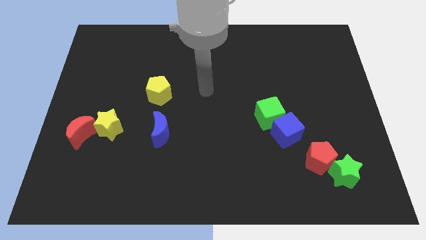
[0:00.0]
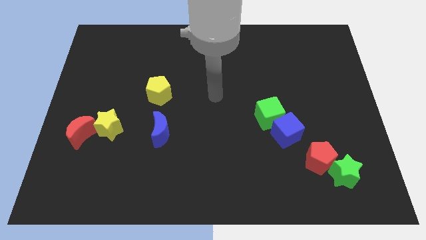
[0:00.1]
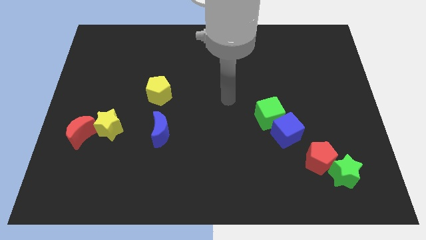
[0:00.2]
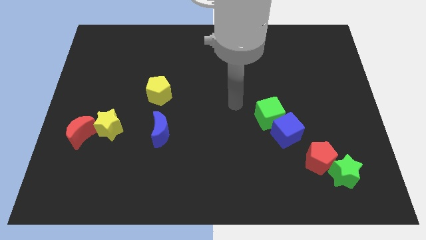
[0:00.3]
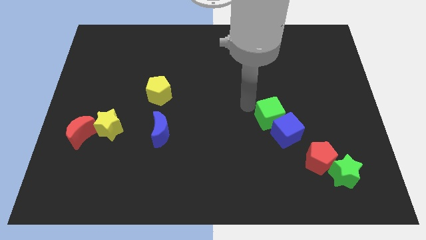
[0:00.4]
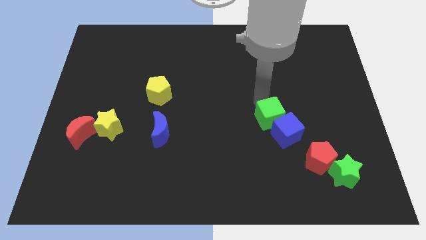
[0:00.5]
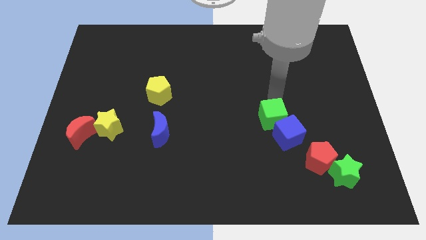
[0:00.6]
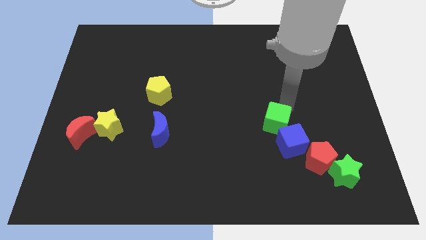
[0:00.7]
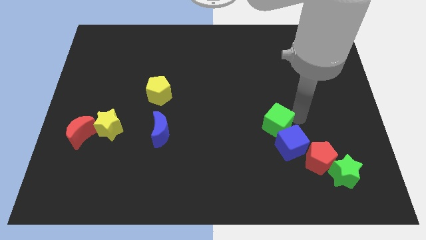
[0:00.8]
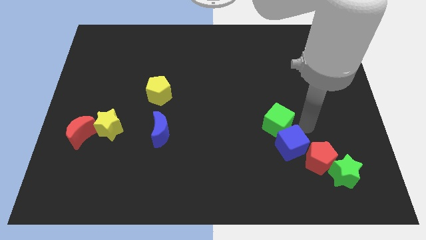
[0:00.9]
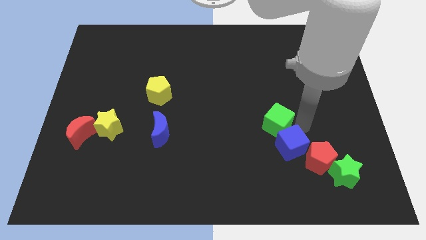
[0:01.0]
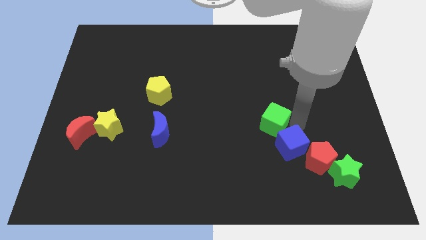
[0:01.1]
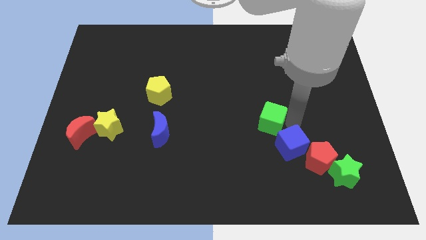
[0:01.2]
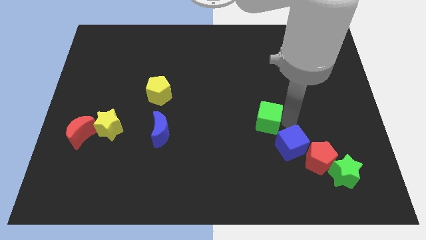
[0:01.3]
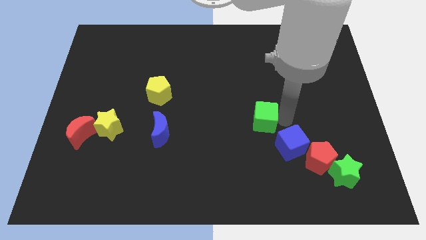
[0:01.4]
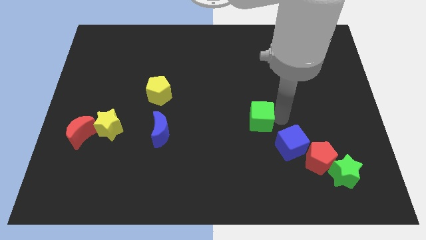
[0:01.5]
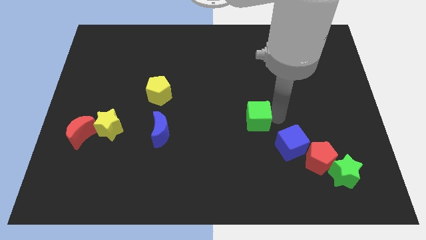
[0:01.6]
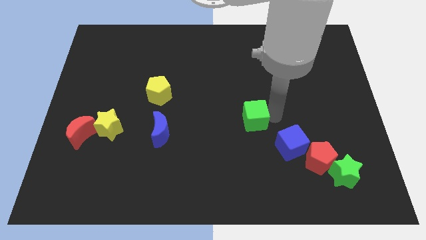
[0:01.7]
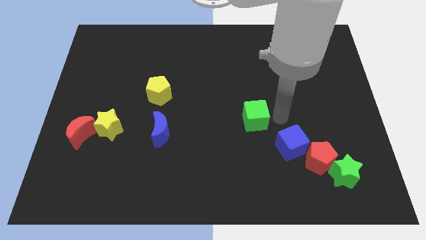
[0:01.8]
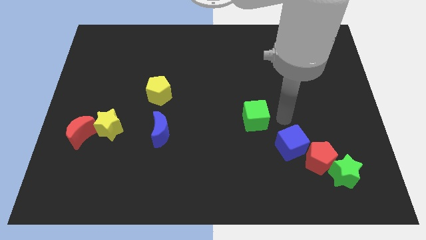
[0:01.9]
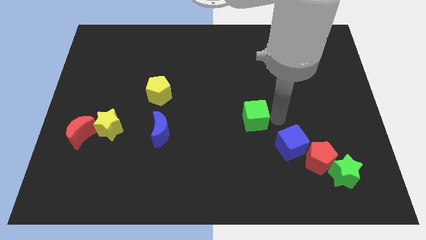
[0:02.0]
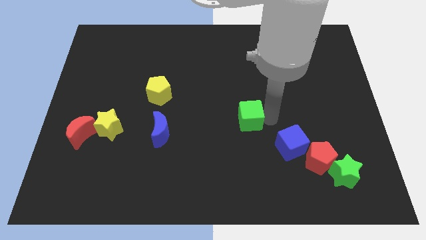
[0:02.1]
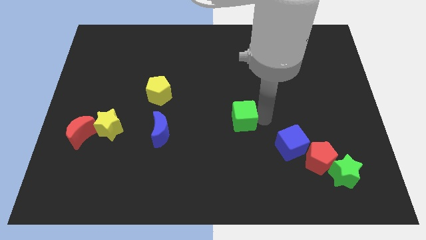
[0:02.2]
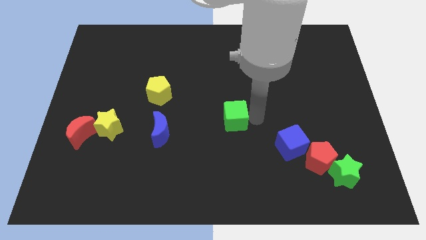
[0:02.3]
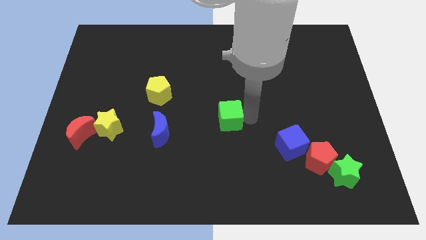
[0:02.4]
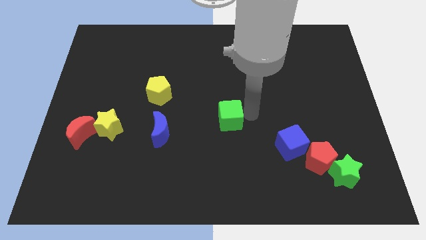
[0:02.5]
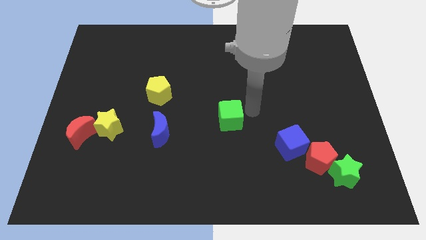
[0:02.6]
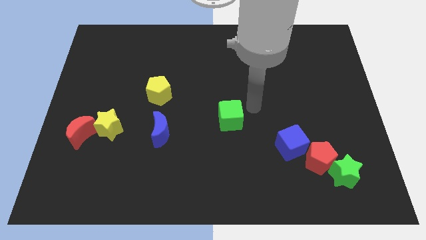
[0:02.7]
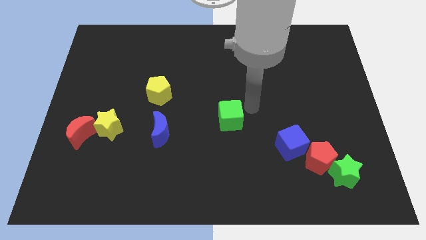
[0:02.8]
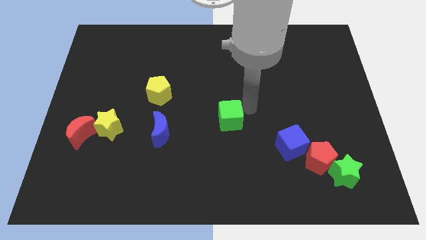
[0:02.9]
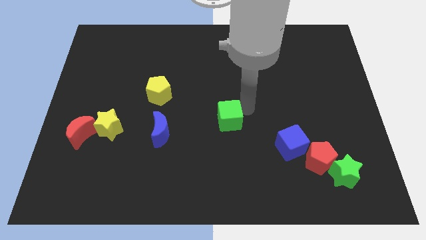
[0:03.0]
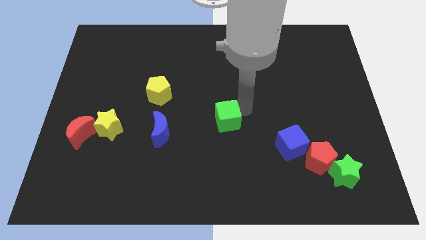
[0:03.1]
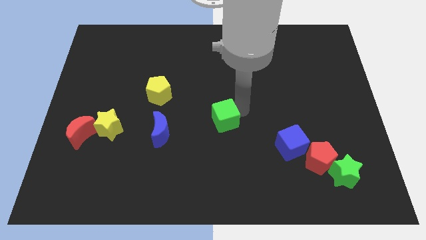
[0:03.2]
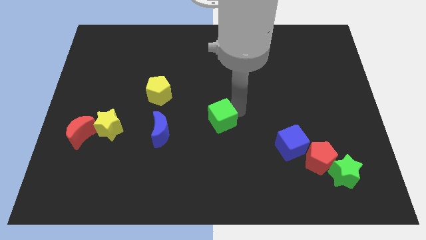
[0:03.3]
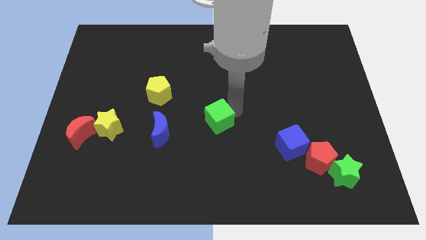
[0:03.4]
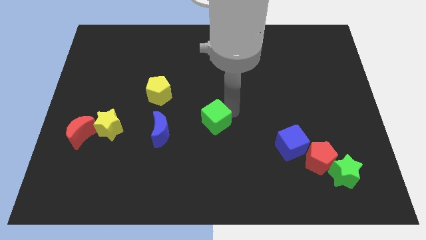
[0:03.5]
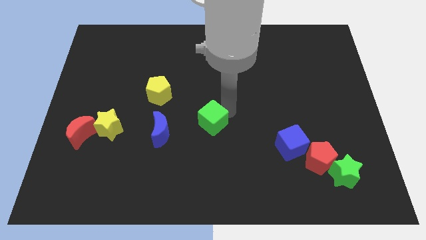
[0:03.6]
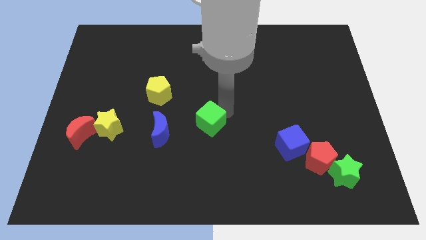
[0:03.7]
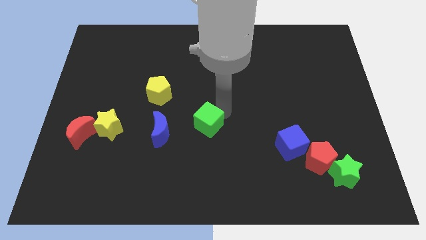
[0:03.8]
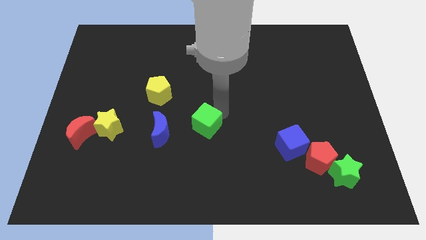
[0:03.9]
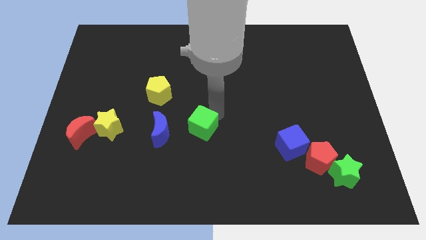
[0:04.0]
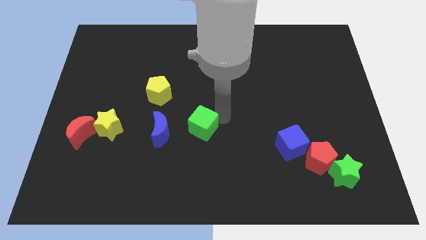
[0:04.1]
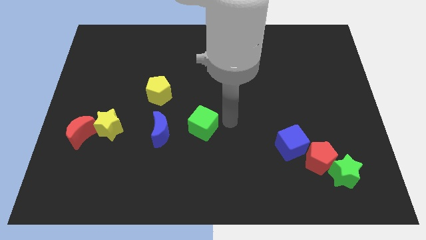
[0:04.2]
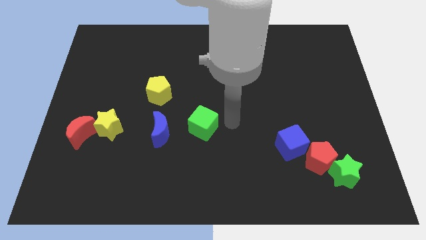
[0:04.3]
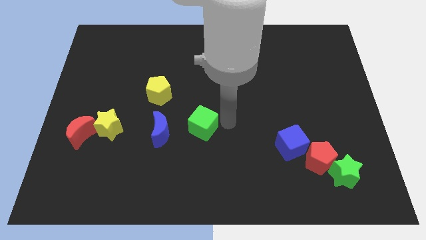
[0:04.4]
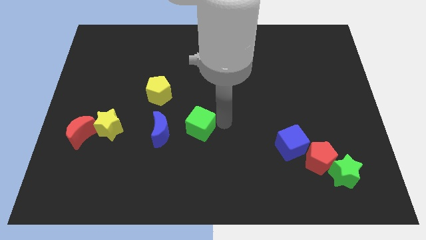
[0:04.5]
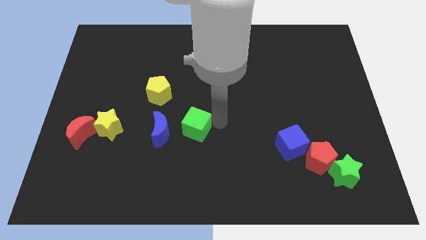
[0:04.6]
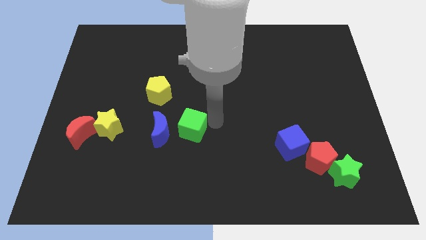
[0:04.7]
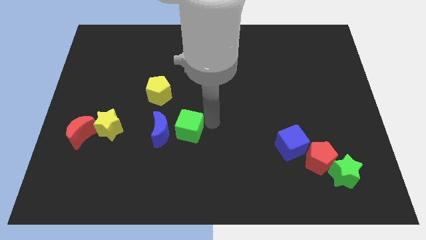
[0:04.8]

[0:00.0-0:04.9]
move the green cube close to the blue moon

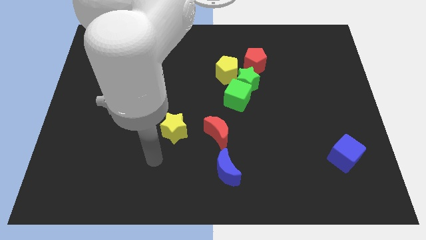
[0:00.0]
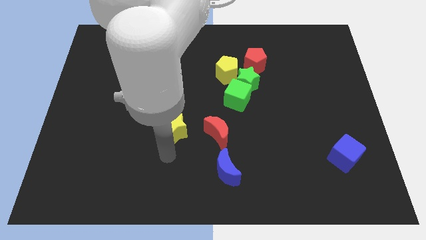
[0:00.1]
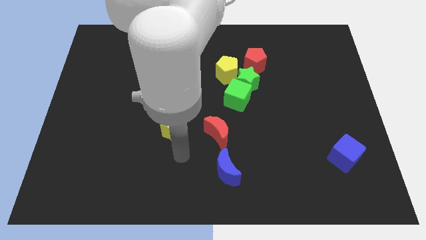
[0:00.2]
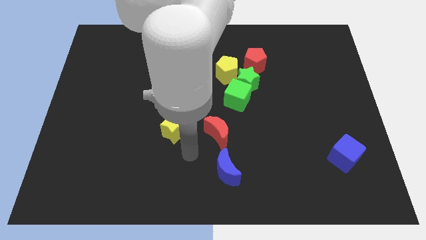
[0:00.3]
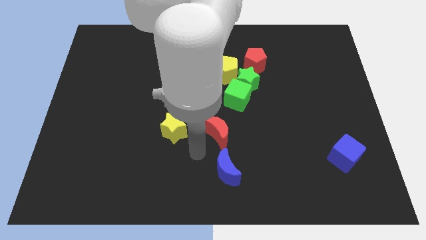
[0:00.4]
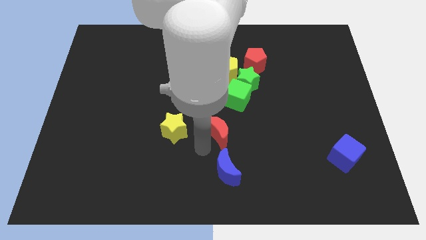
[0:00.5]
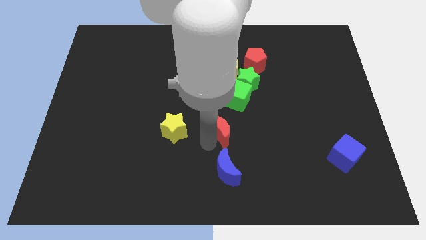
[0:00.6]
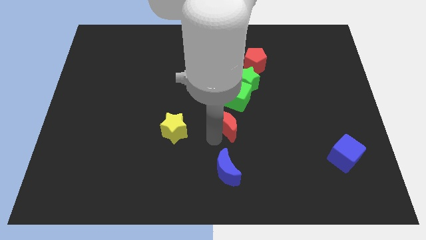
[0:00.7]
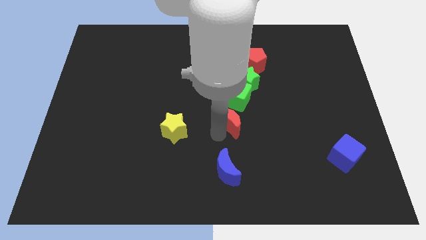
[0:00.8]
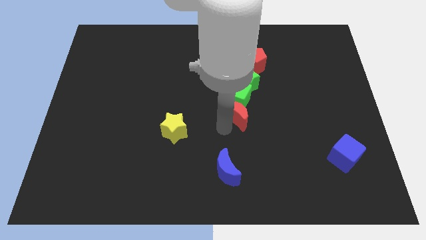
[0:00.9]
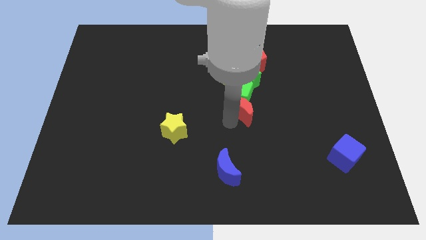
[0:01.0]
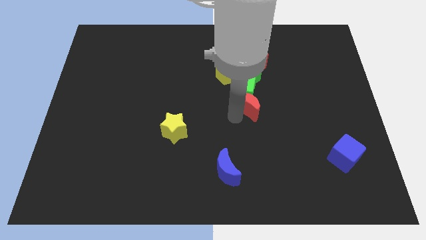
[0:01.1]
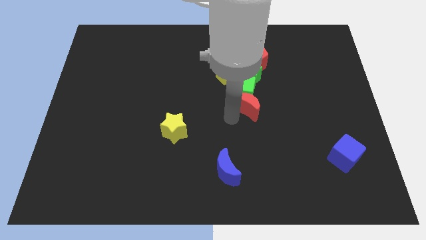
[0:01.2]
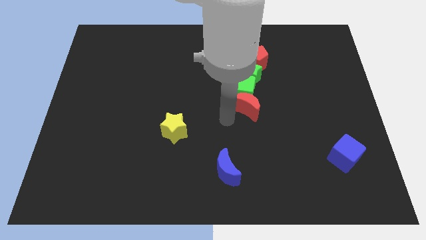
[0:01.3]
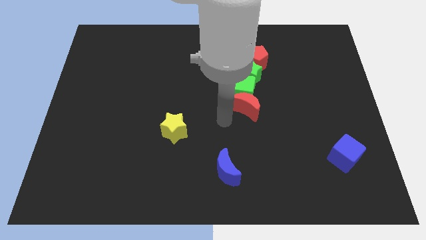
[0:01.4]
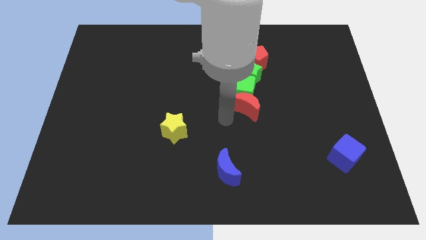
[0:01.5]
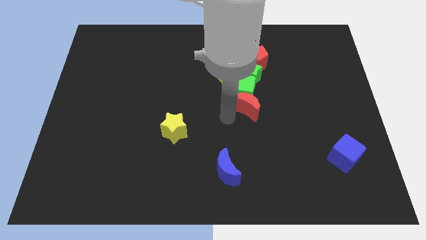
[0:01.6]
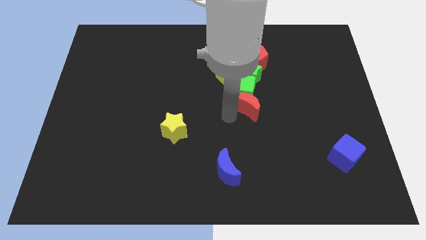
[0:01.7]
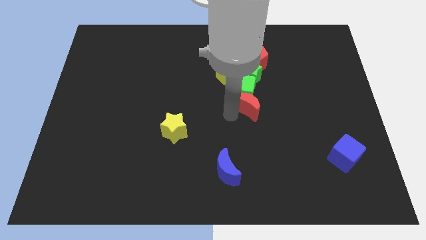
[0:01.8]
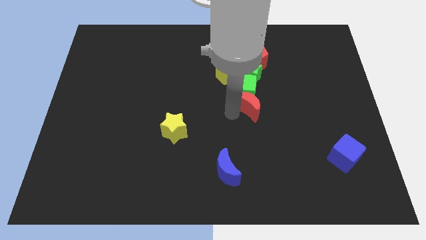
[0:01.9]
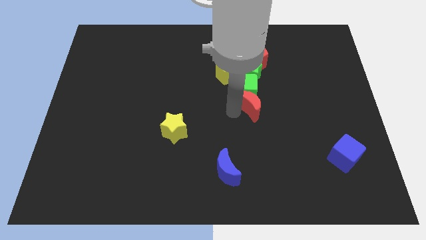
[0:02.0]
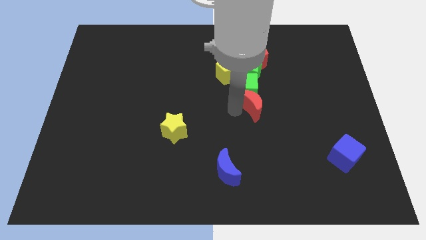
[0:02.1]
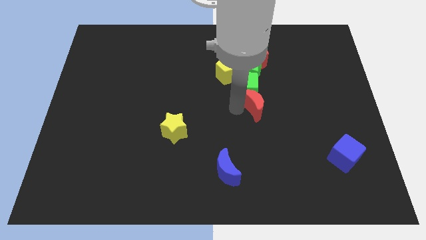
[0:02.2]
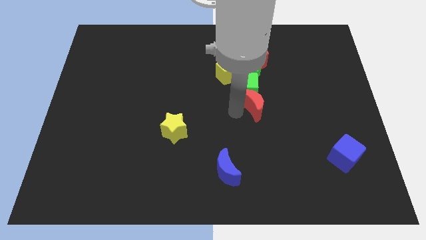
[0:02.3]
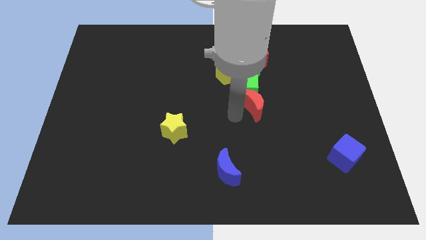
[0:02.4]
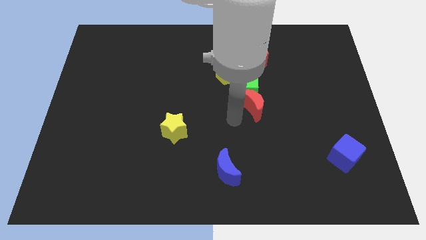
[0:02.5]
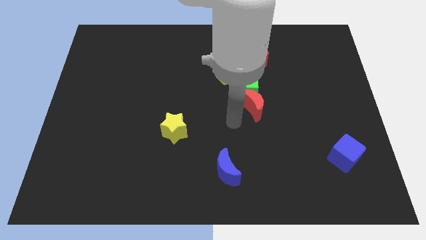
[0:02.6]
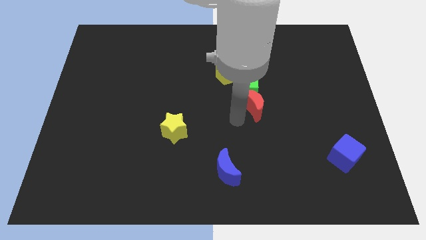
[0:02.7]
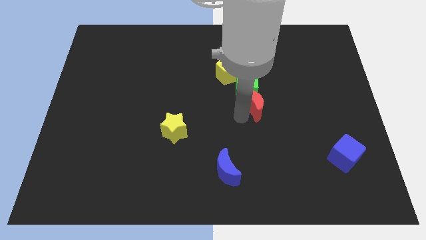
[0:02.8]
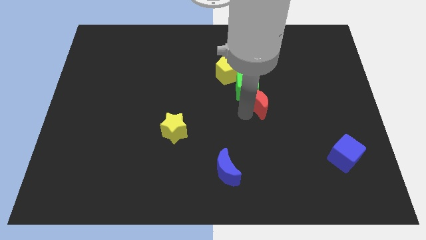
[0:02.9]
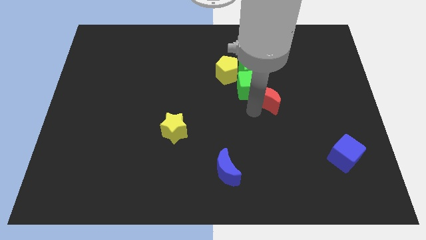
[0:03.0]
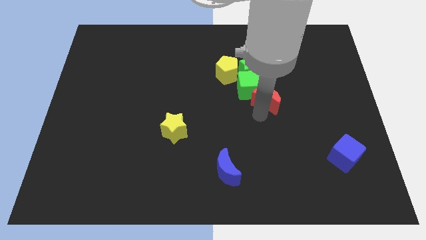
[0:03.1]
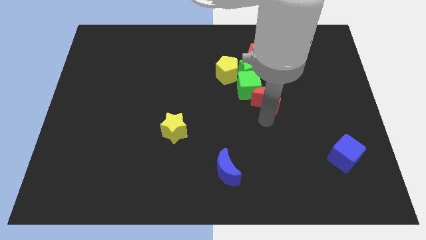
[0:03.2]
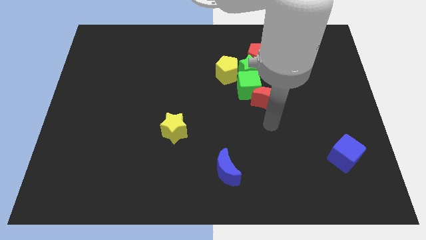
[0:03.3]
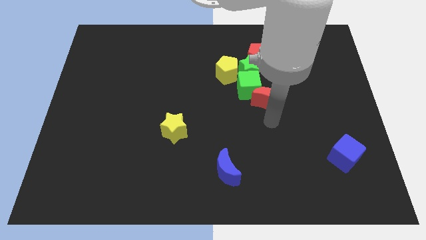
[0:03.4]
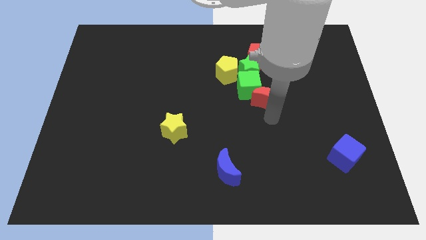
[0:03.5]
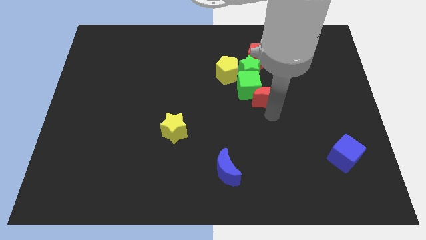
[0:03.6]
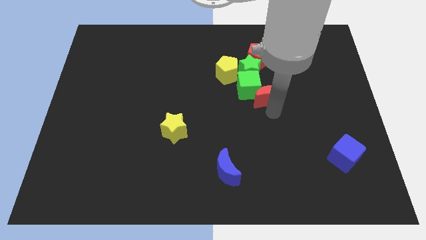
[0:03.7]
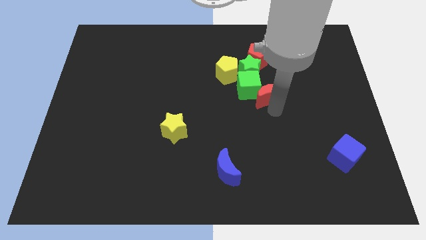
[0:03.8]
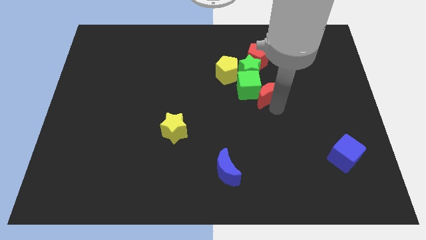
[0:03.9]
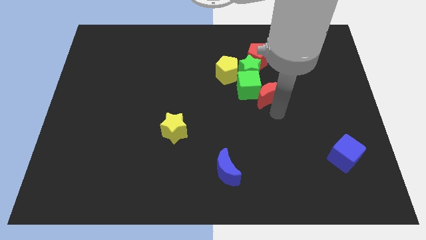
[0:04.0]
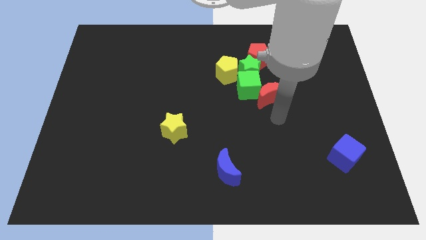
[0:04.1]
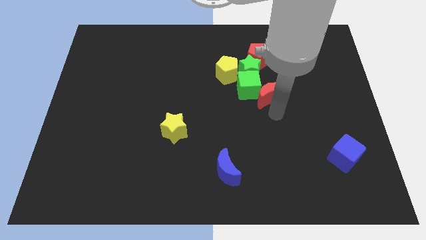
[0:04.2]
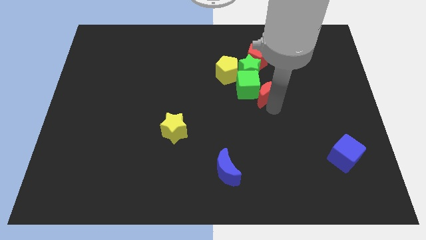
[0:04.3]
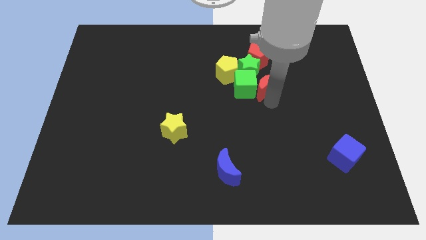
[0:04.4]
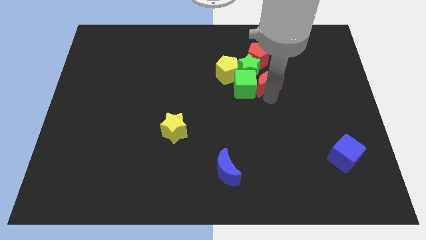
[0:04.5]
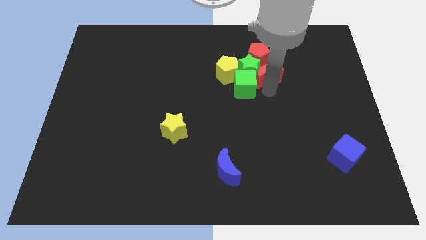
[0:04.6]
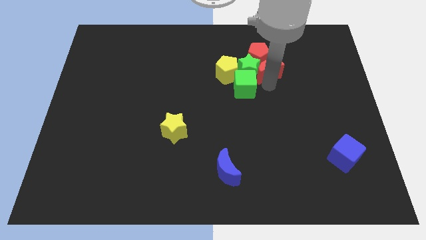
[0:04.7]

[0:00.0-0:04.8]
move the red moon close to the red pentagon
